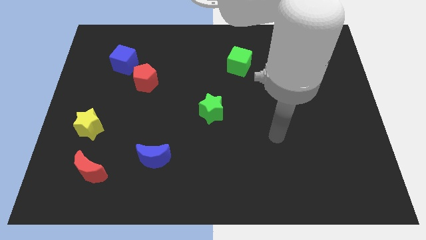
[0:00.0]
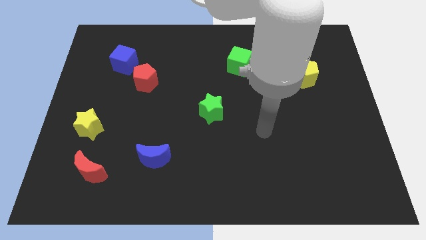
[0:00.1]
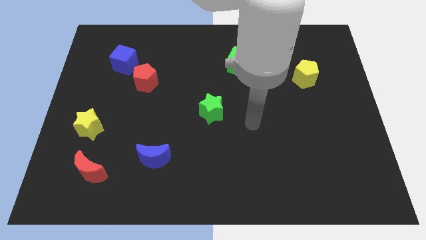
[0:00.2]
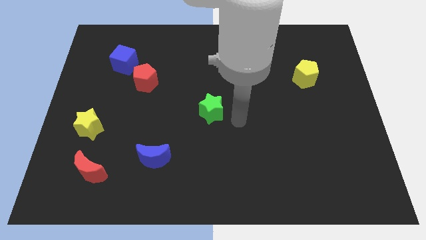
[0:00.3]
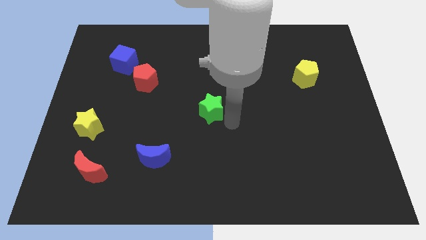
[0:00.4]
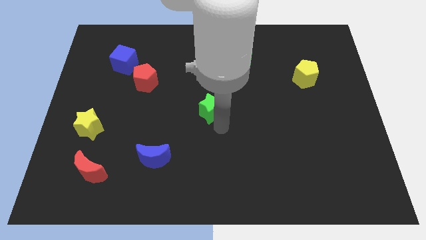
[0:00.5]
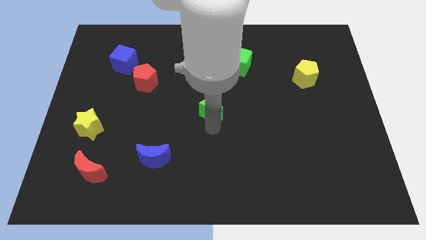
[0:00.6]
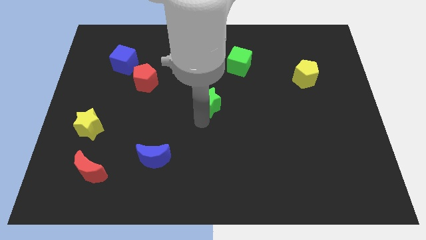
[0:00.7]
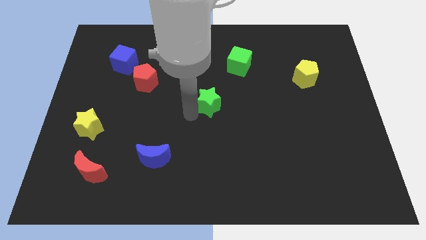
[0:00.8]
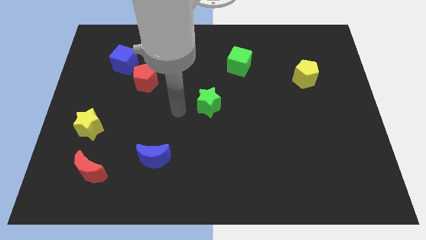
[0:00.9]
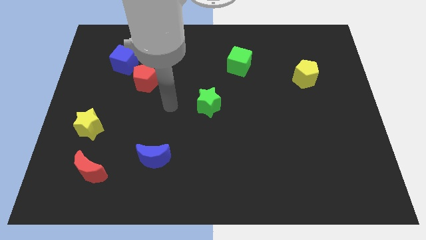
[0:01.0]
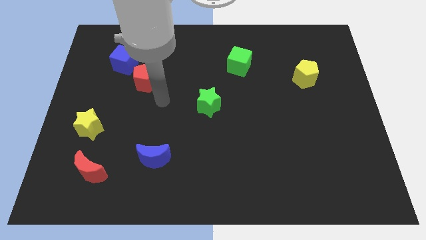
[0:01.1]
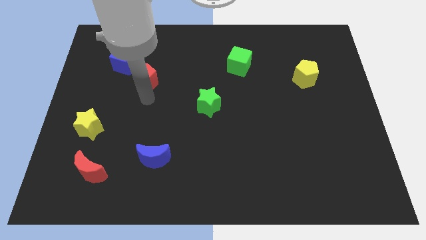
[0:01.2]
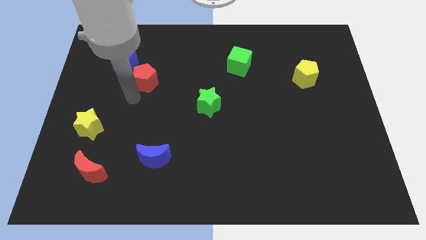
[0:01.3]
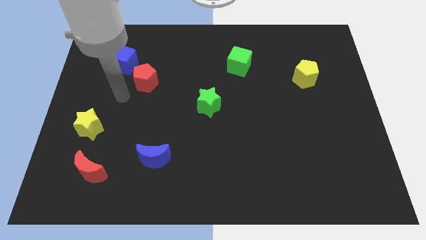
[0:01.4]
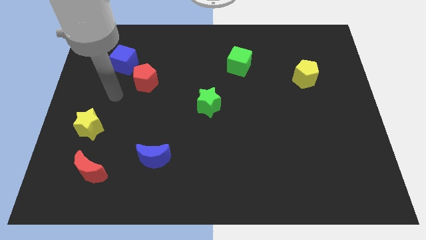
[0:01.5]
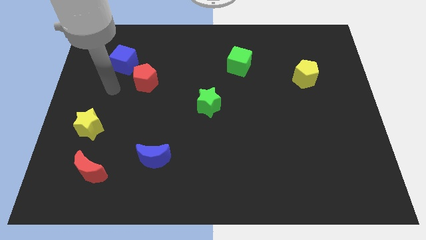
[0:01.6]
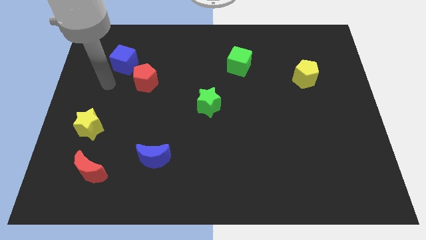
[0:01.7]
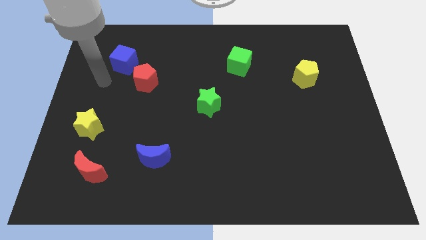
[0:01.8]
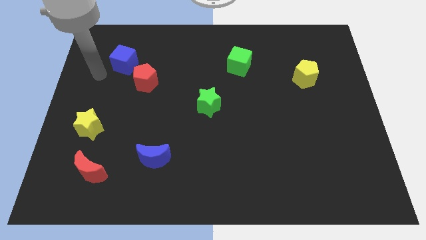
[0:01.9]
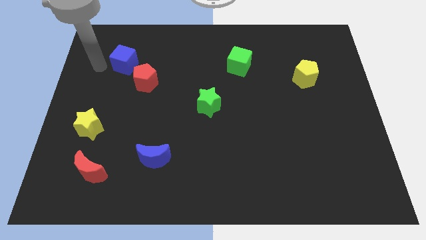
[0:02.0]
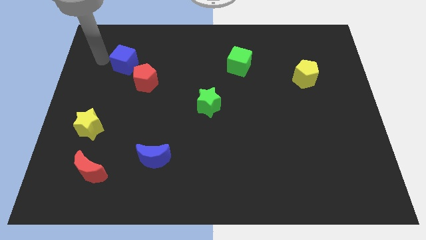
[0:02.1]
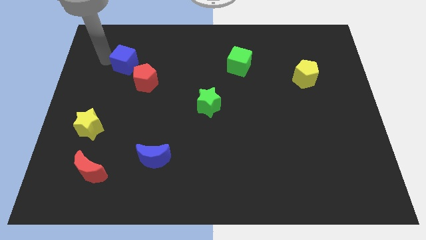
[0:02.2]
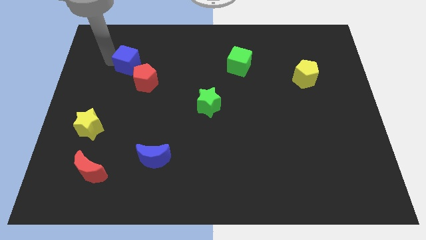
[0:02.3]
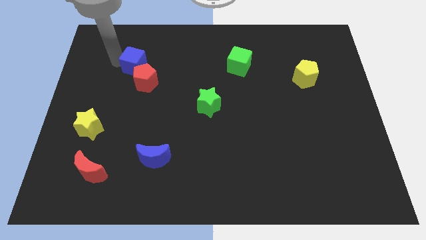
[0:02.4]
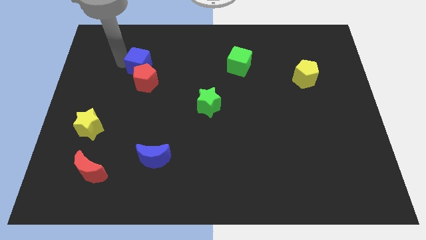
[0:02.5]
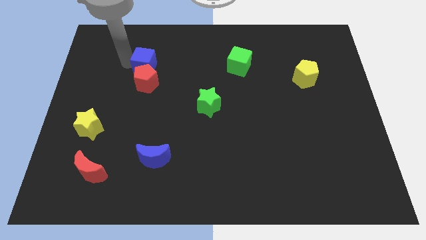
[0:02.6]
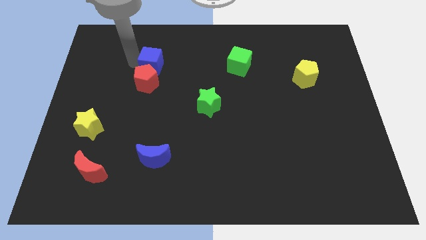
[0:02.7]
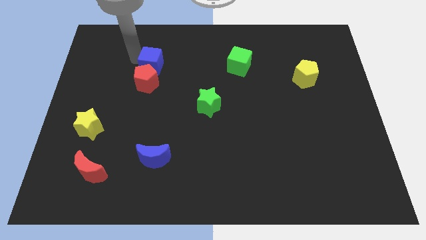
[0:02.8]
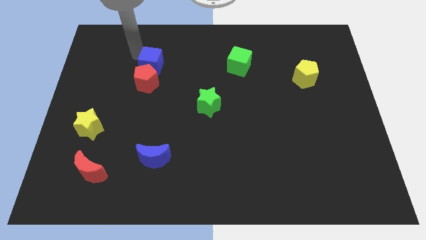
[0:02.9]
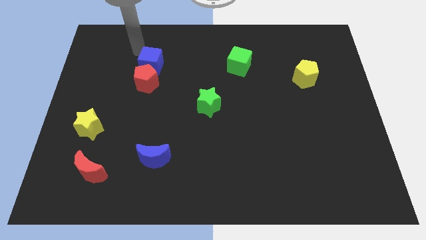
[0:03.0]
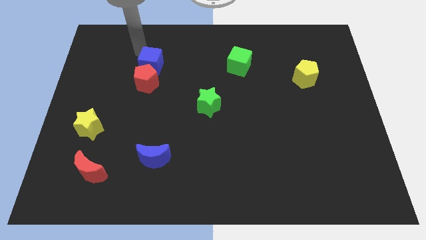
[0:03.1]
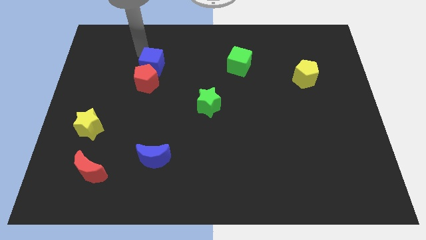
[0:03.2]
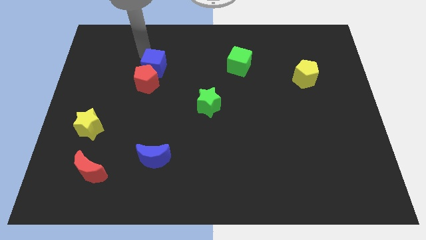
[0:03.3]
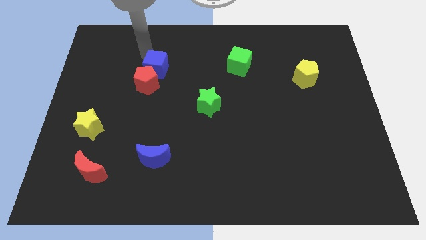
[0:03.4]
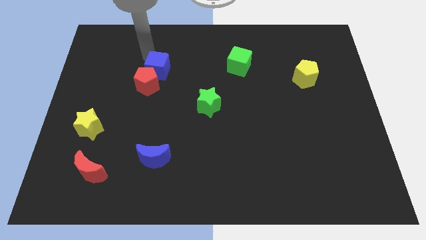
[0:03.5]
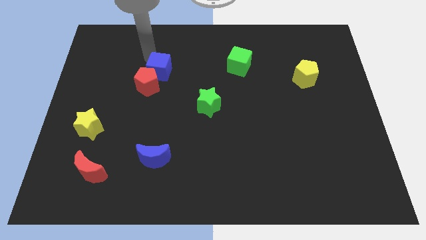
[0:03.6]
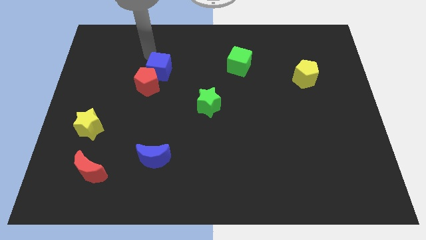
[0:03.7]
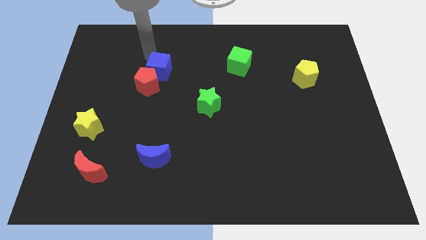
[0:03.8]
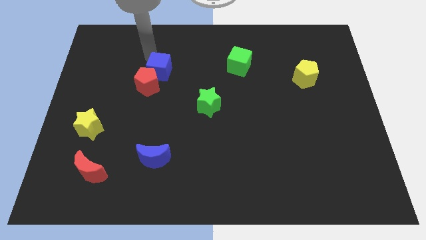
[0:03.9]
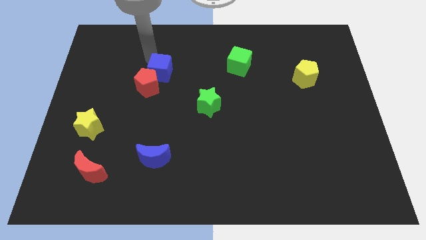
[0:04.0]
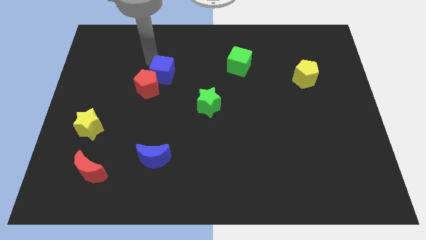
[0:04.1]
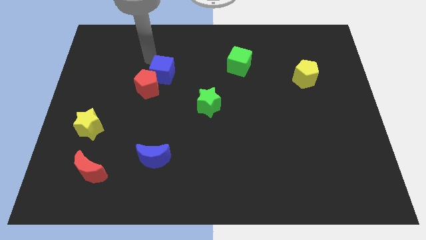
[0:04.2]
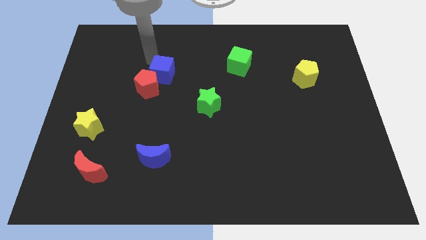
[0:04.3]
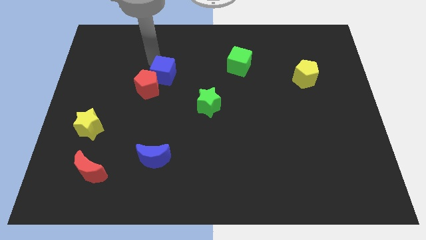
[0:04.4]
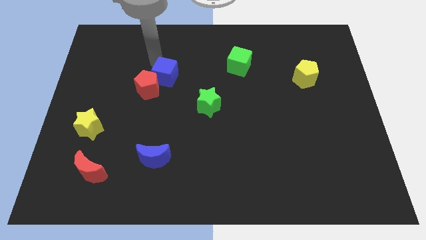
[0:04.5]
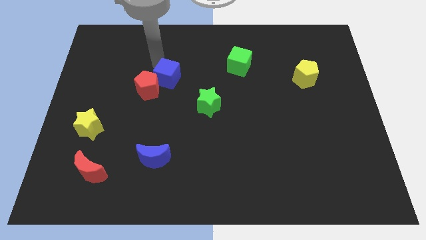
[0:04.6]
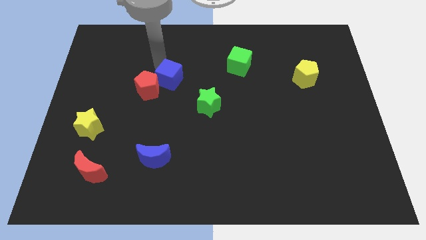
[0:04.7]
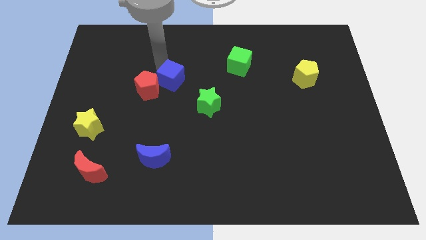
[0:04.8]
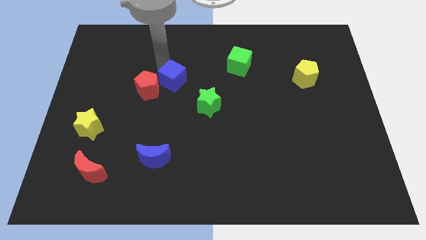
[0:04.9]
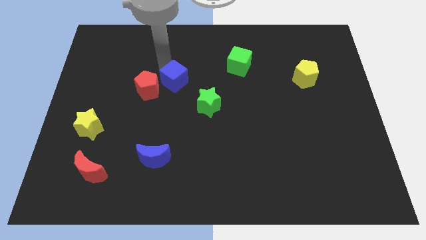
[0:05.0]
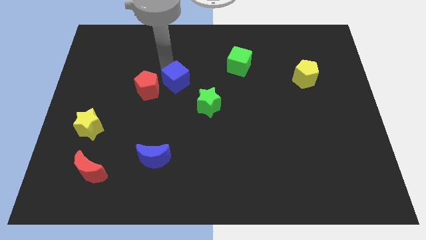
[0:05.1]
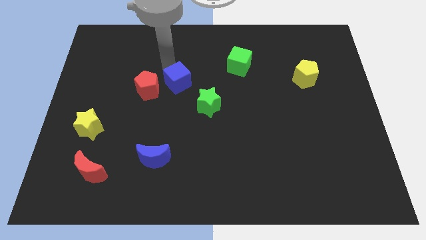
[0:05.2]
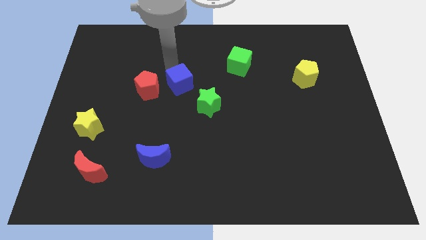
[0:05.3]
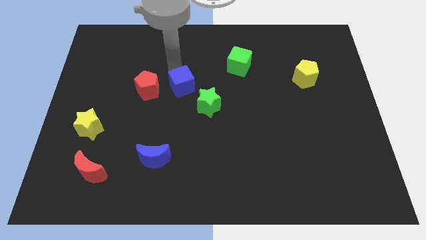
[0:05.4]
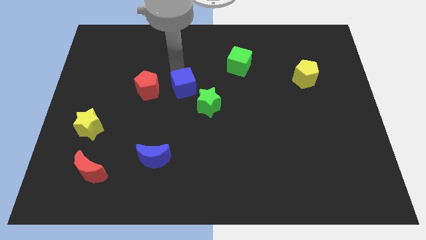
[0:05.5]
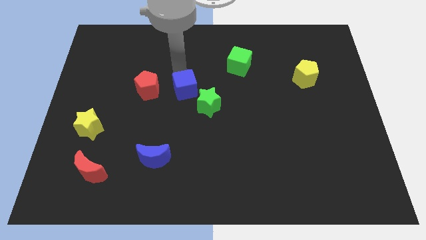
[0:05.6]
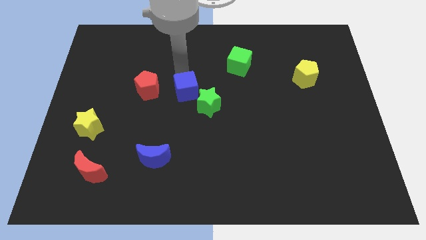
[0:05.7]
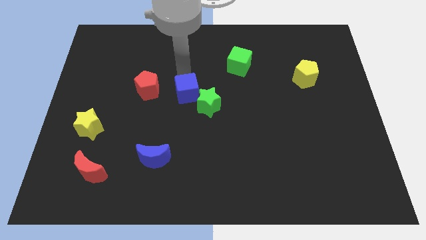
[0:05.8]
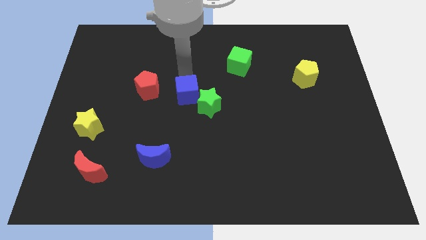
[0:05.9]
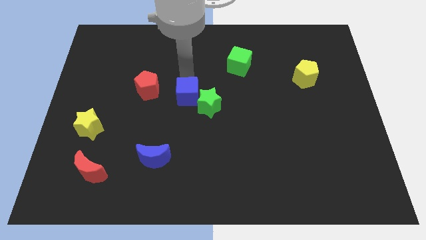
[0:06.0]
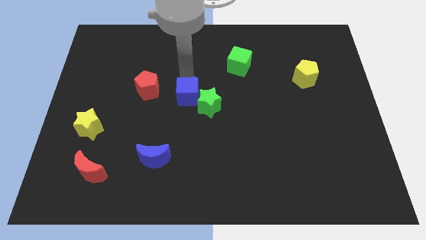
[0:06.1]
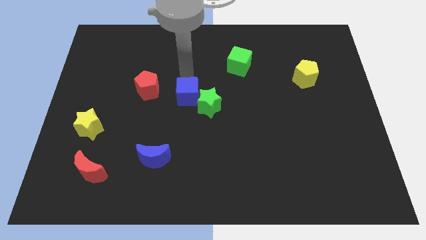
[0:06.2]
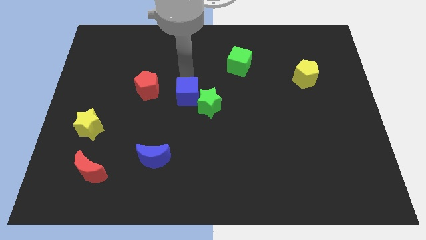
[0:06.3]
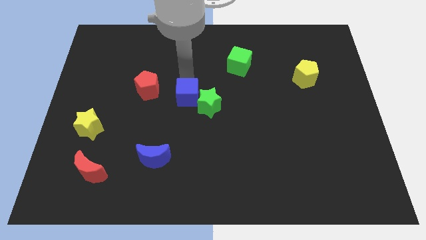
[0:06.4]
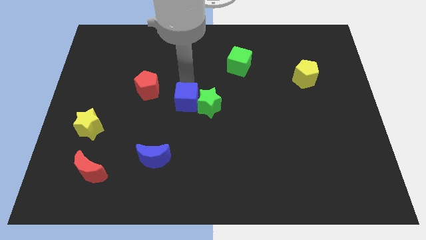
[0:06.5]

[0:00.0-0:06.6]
push the blue cube down and right

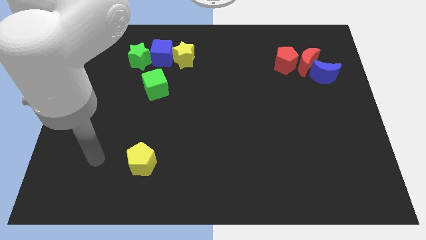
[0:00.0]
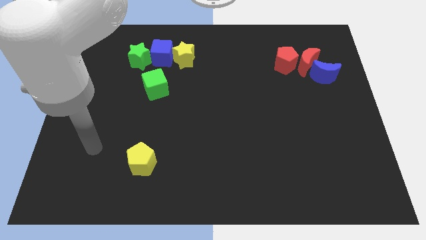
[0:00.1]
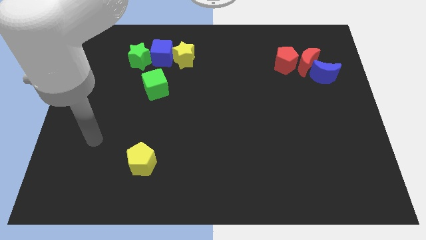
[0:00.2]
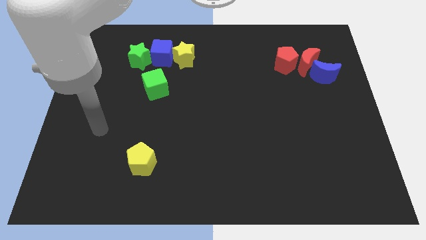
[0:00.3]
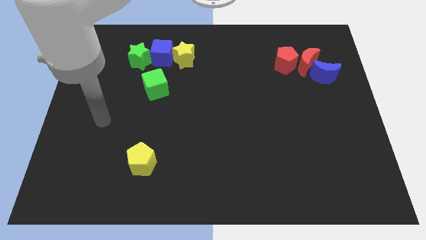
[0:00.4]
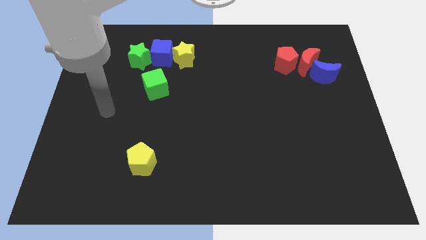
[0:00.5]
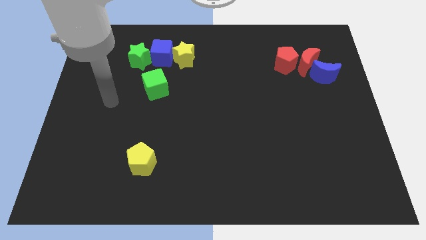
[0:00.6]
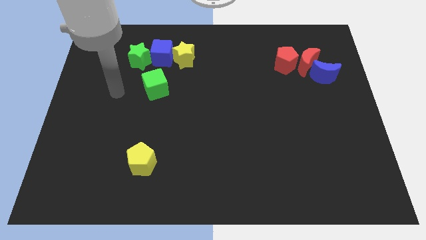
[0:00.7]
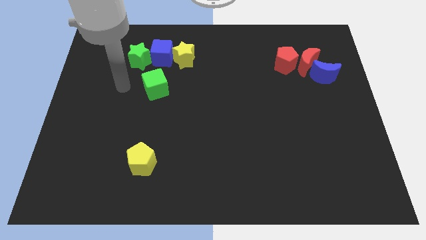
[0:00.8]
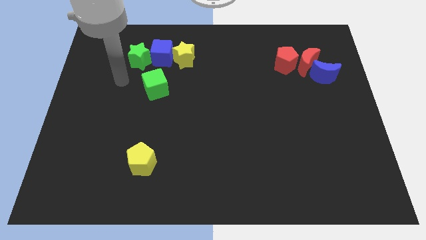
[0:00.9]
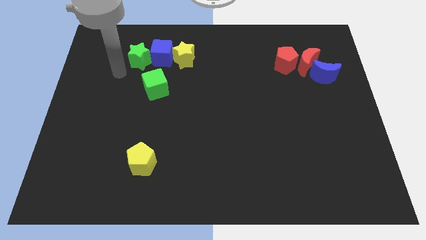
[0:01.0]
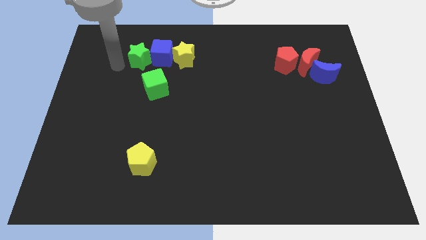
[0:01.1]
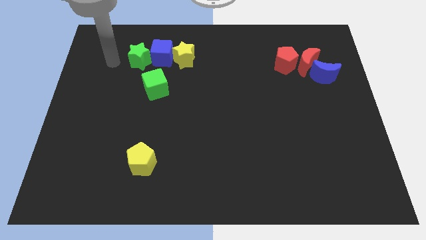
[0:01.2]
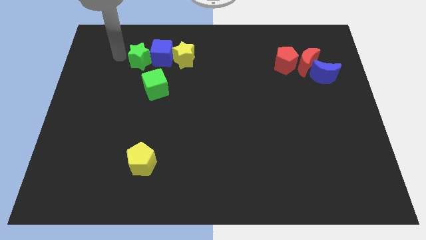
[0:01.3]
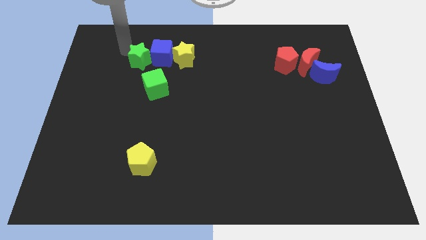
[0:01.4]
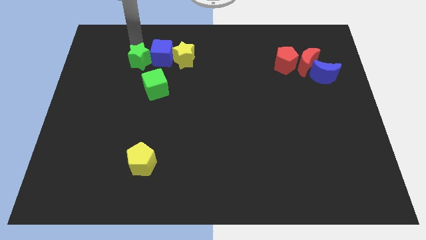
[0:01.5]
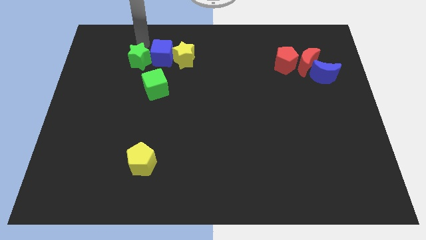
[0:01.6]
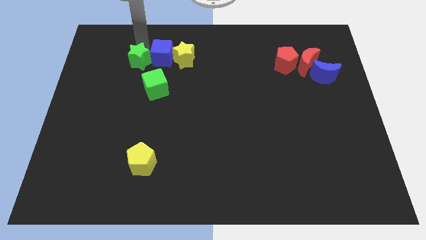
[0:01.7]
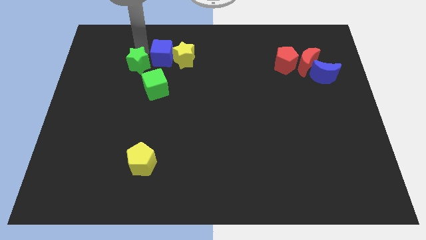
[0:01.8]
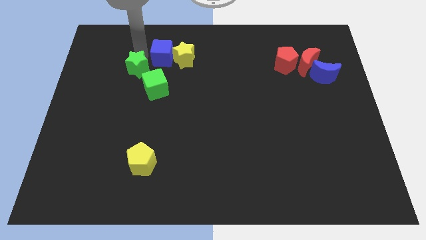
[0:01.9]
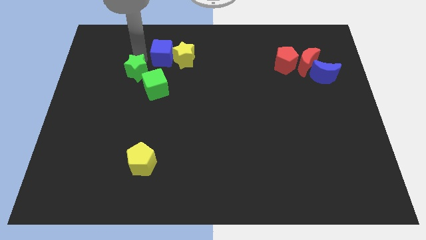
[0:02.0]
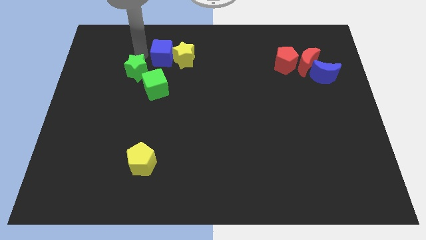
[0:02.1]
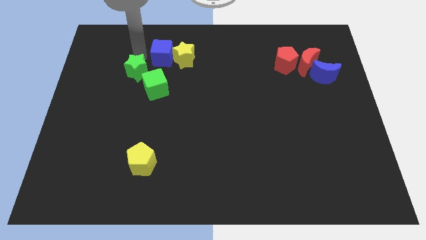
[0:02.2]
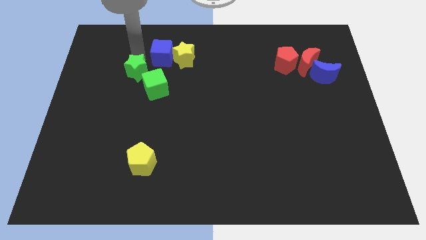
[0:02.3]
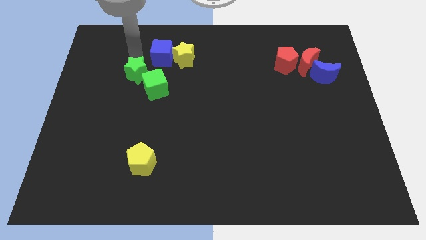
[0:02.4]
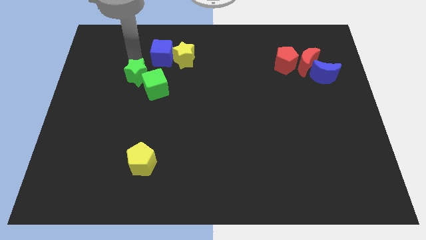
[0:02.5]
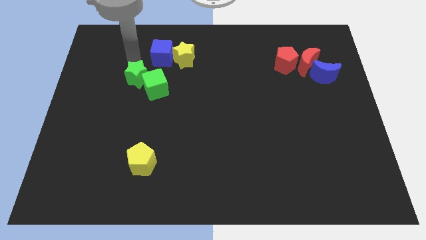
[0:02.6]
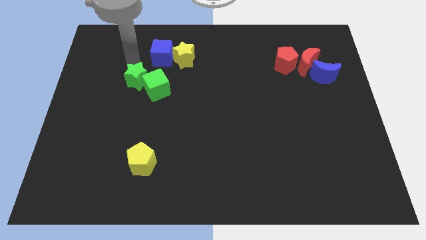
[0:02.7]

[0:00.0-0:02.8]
slide the green star downwards a little bit
